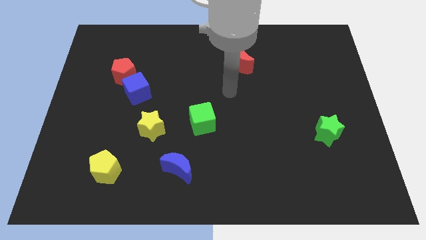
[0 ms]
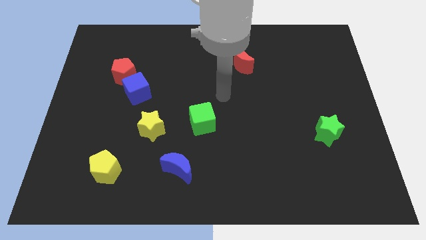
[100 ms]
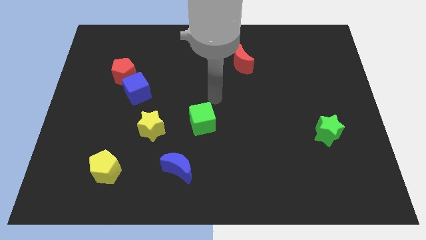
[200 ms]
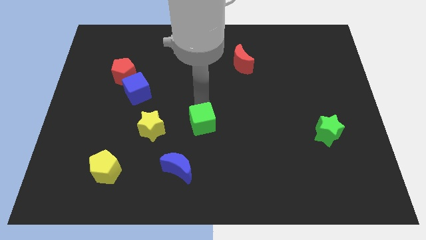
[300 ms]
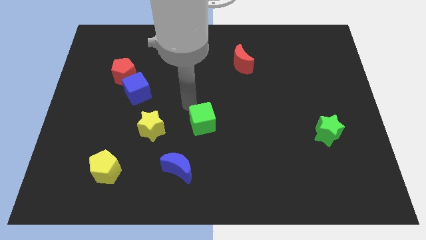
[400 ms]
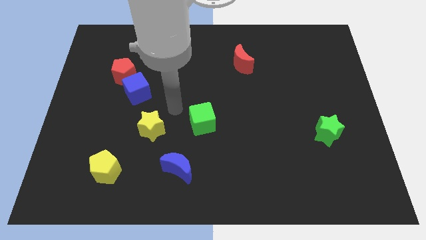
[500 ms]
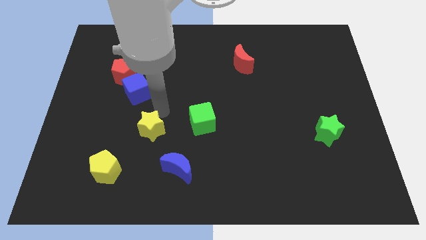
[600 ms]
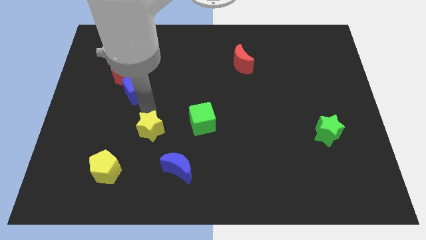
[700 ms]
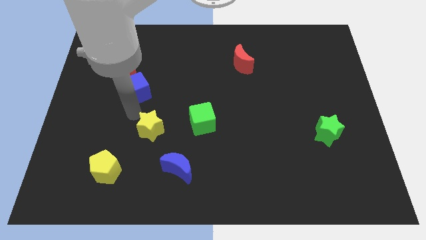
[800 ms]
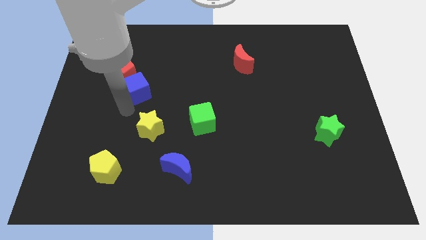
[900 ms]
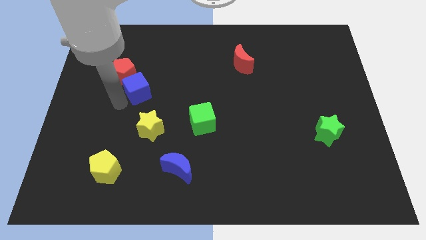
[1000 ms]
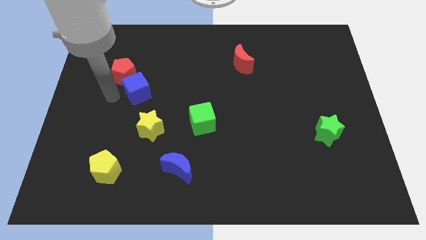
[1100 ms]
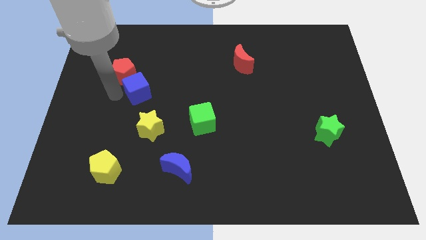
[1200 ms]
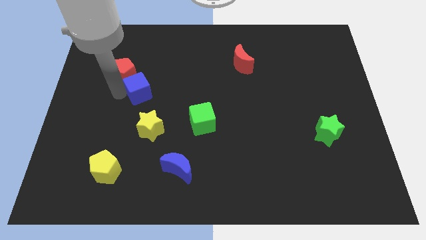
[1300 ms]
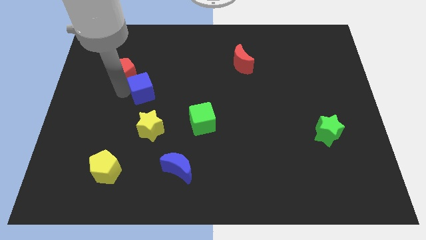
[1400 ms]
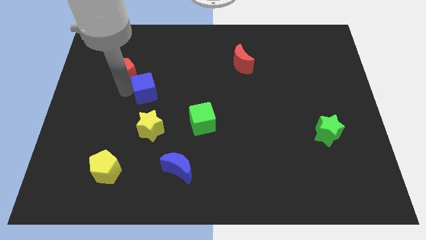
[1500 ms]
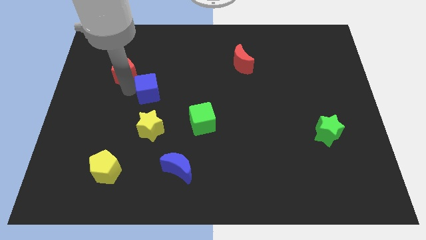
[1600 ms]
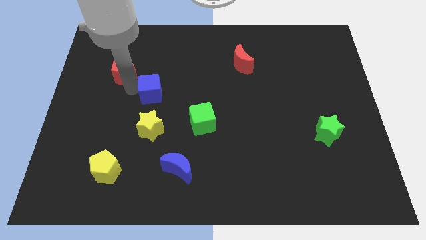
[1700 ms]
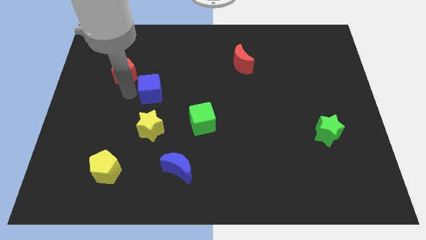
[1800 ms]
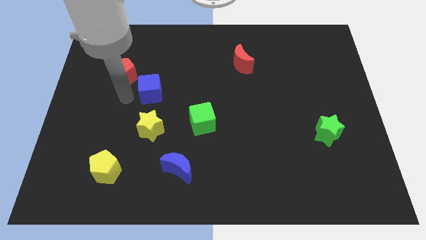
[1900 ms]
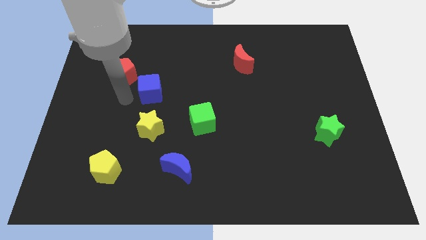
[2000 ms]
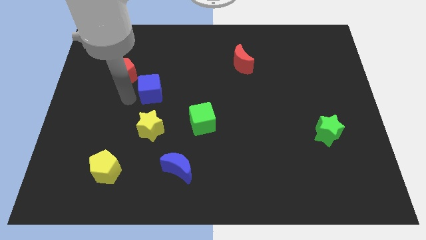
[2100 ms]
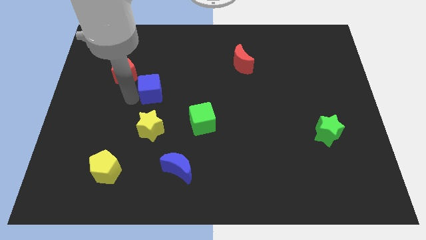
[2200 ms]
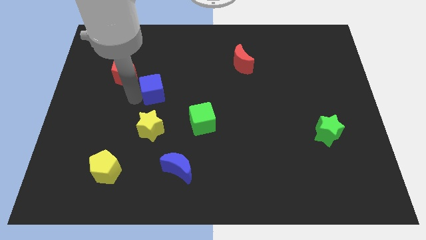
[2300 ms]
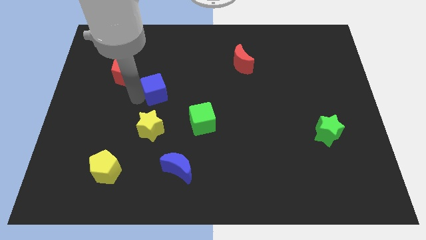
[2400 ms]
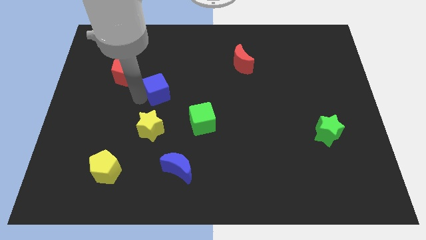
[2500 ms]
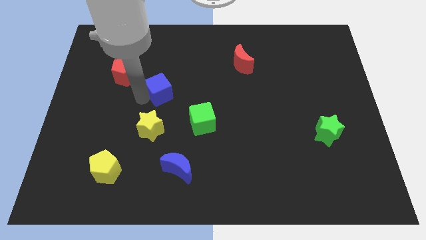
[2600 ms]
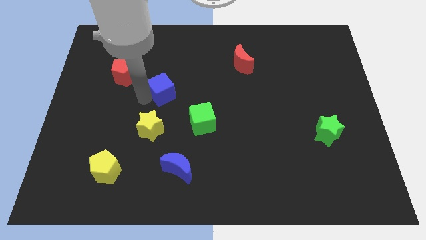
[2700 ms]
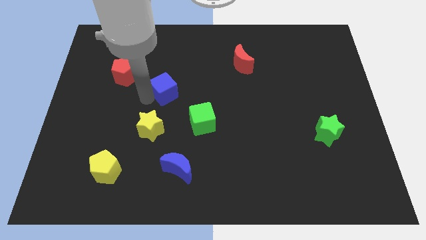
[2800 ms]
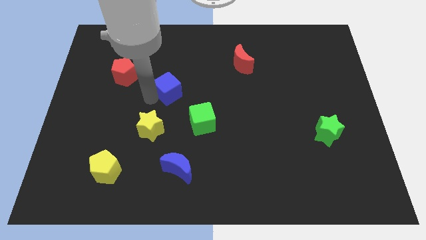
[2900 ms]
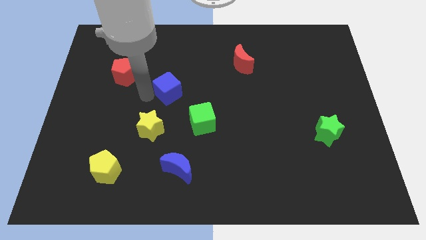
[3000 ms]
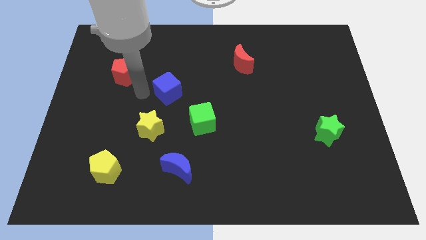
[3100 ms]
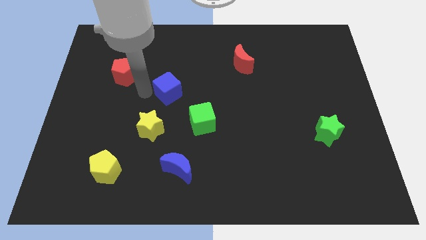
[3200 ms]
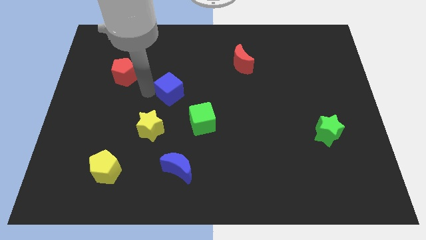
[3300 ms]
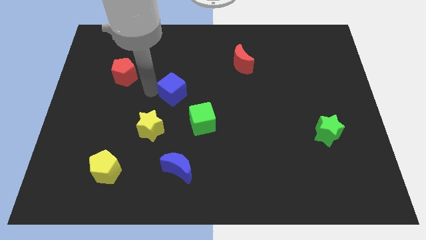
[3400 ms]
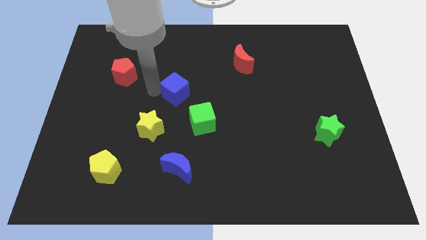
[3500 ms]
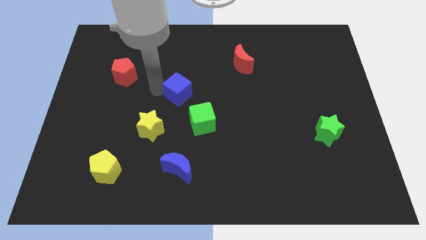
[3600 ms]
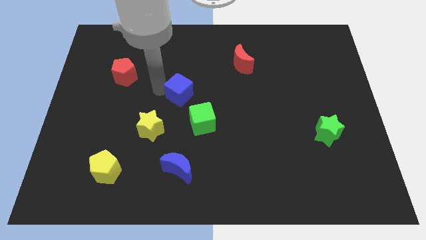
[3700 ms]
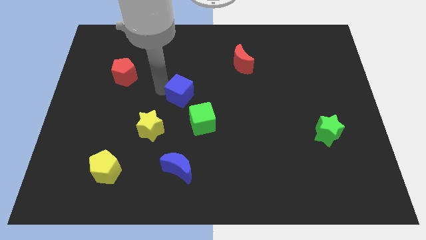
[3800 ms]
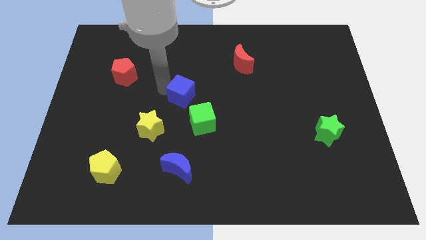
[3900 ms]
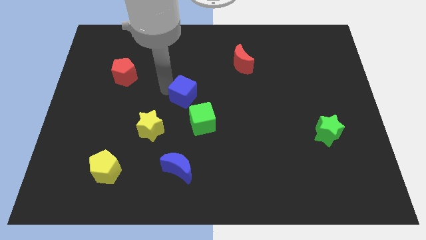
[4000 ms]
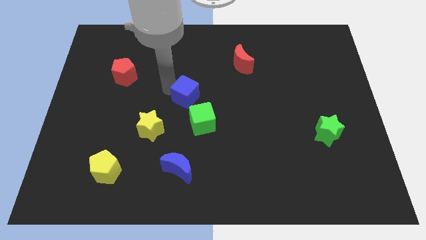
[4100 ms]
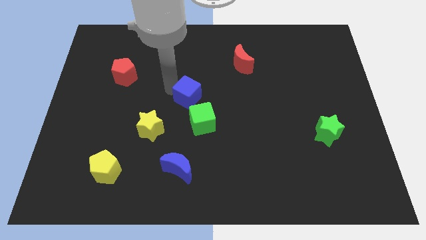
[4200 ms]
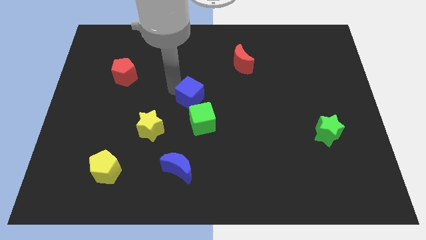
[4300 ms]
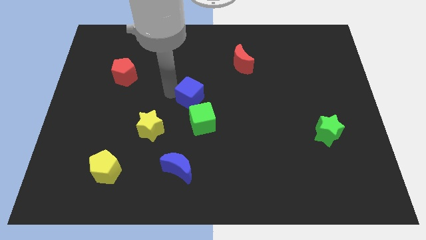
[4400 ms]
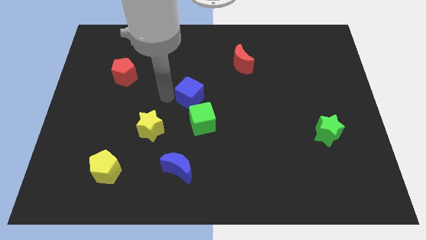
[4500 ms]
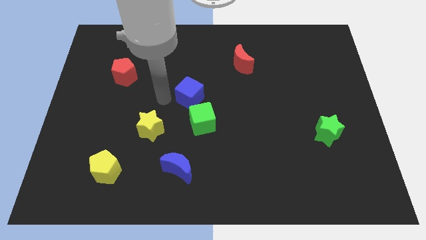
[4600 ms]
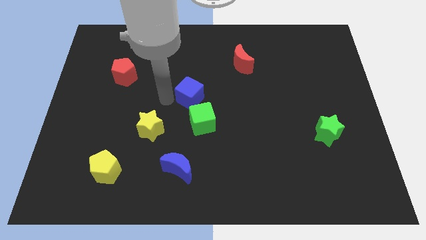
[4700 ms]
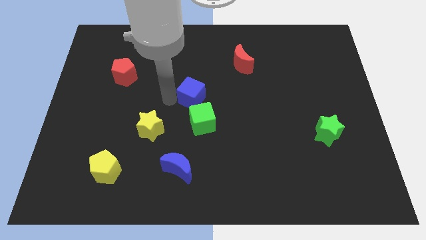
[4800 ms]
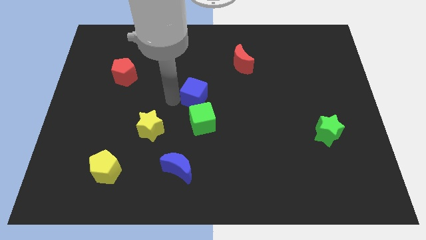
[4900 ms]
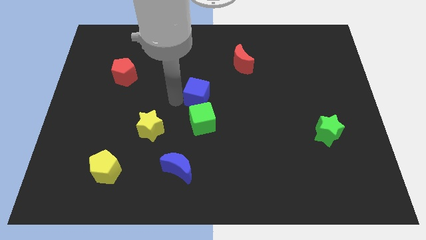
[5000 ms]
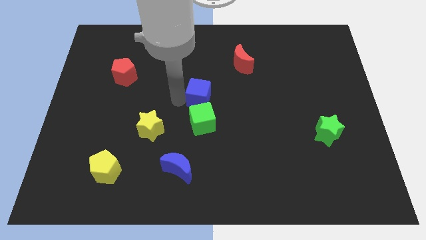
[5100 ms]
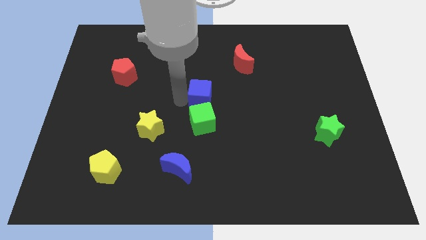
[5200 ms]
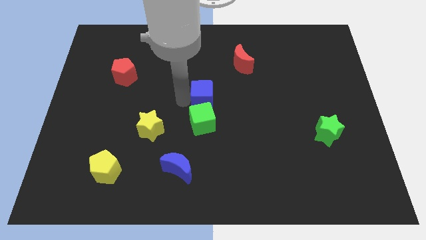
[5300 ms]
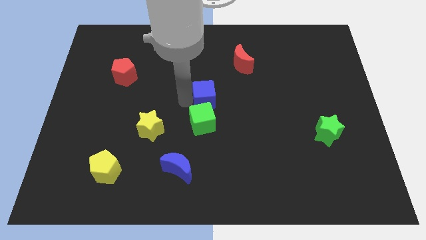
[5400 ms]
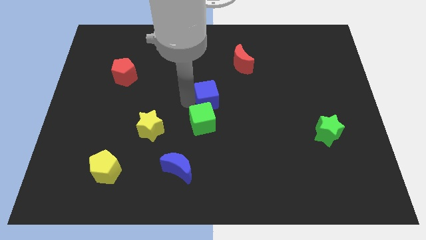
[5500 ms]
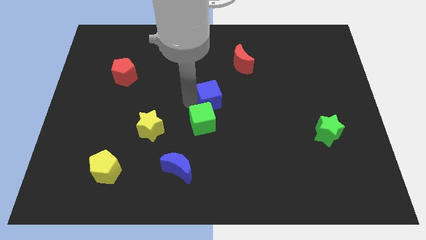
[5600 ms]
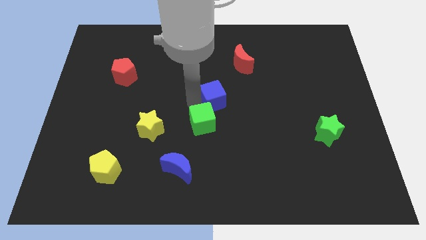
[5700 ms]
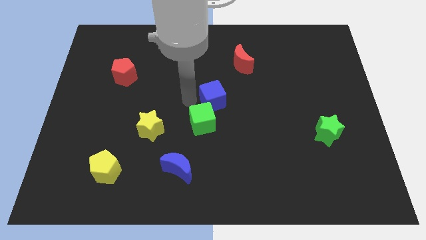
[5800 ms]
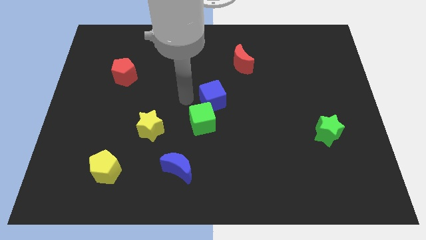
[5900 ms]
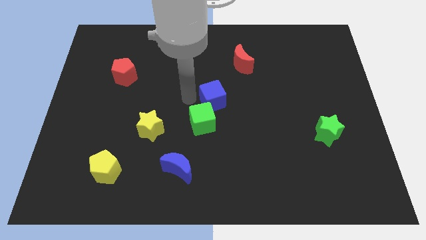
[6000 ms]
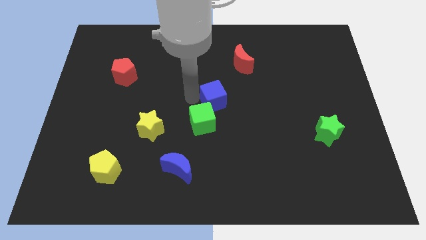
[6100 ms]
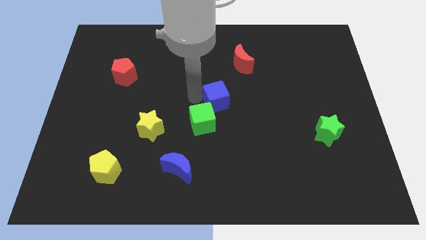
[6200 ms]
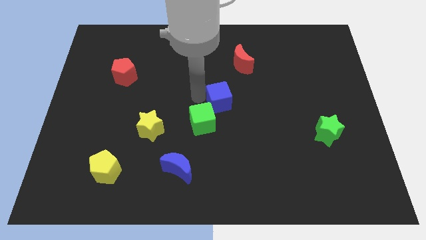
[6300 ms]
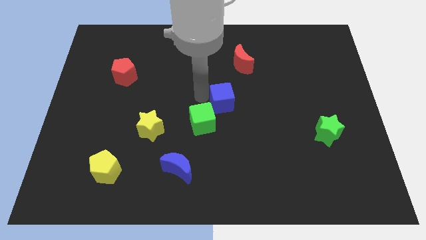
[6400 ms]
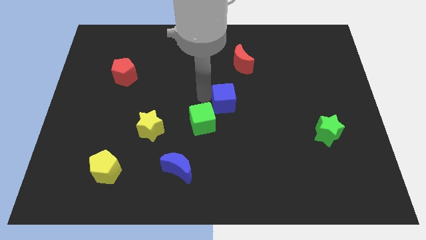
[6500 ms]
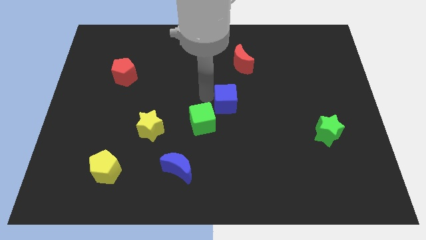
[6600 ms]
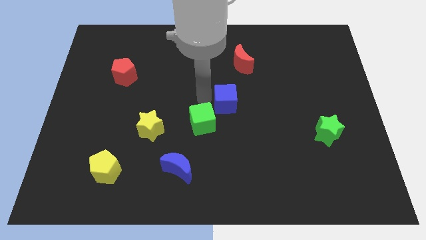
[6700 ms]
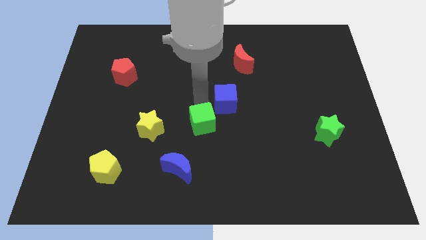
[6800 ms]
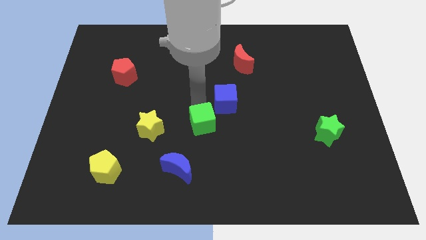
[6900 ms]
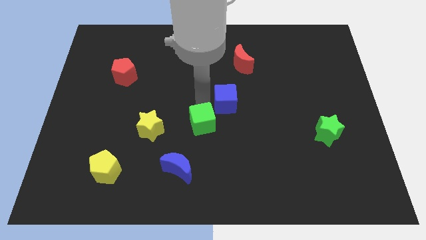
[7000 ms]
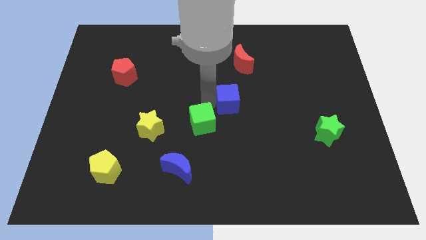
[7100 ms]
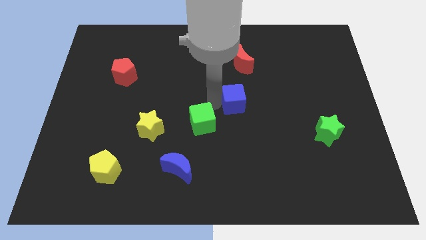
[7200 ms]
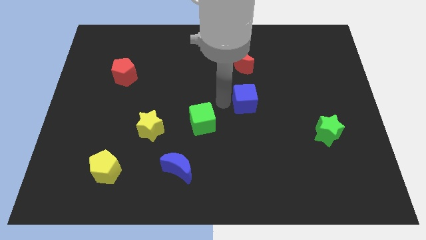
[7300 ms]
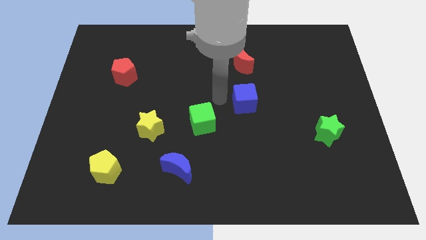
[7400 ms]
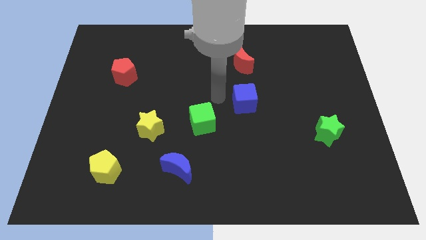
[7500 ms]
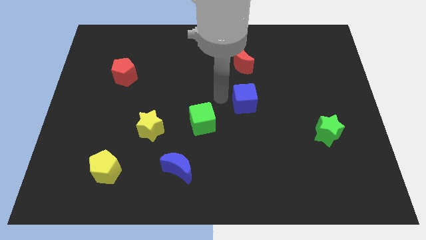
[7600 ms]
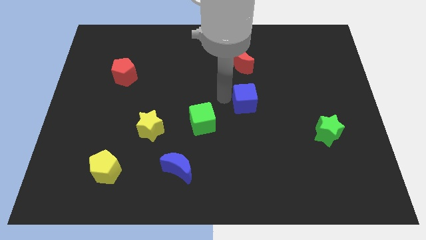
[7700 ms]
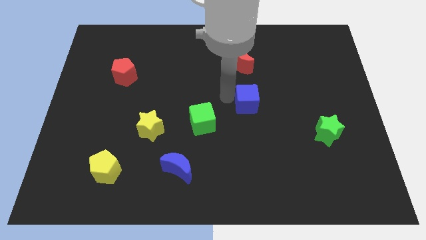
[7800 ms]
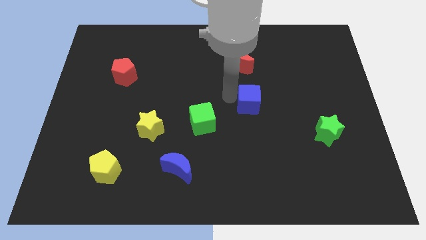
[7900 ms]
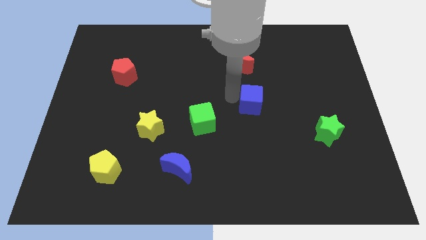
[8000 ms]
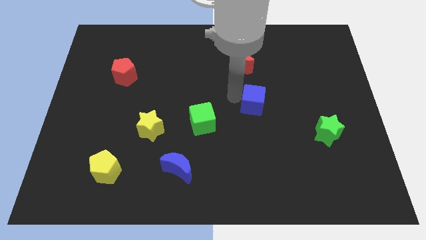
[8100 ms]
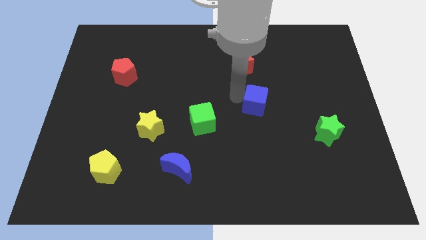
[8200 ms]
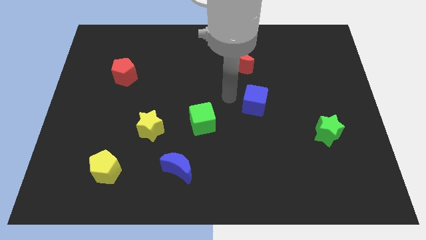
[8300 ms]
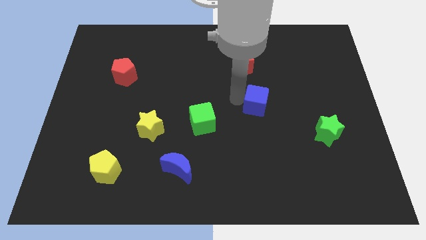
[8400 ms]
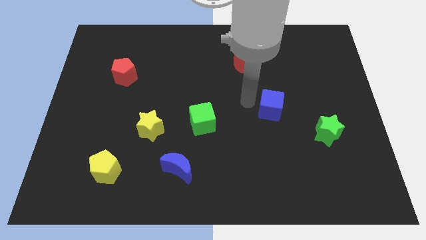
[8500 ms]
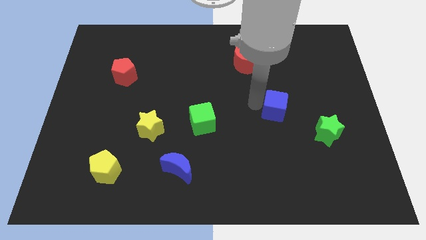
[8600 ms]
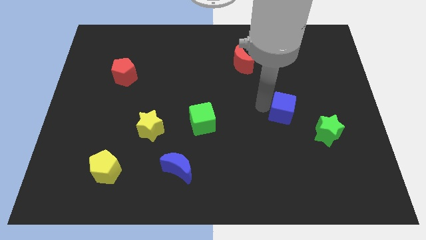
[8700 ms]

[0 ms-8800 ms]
push the blue cube to the top left of the green star
